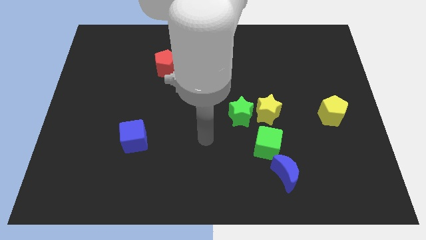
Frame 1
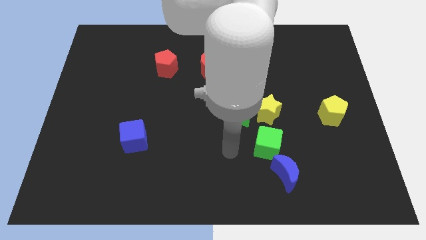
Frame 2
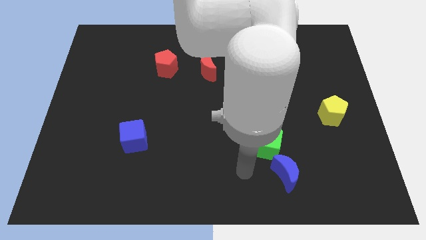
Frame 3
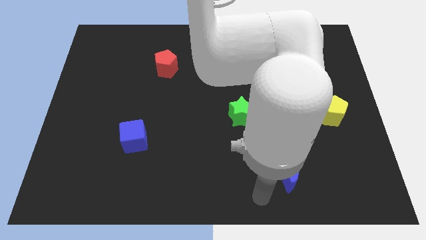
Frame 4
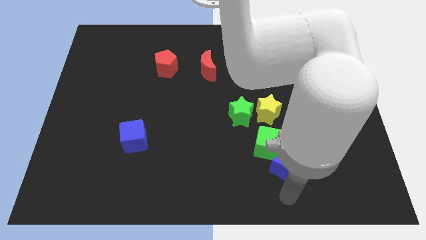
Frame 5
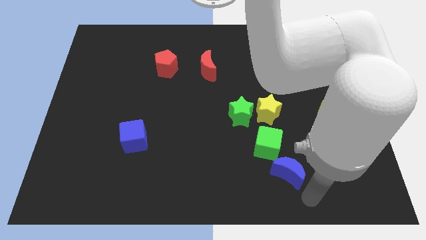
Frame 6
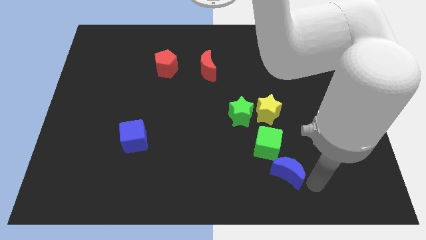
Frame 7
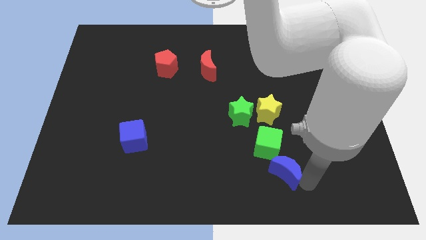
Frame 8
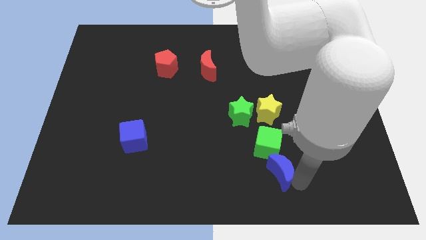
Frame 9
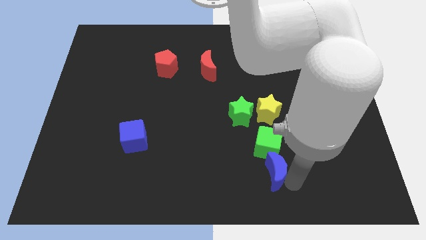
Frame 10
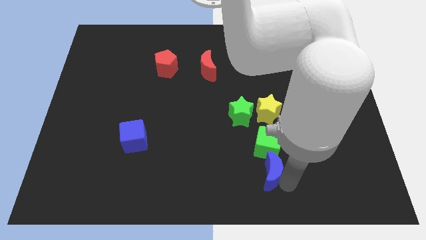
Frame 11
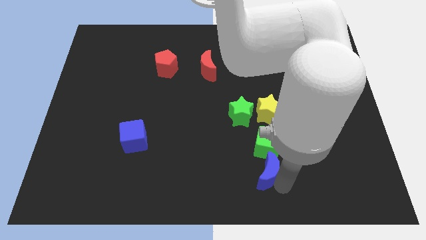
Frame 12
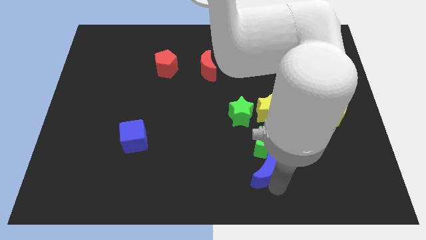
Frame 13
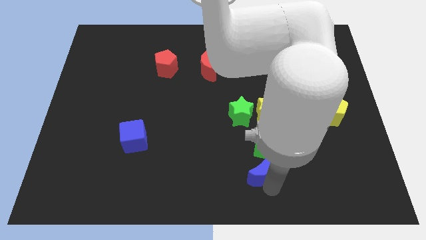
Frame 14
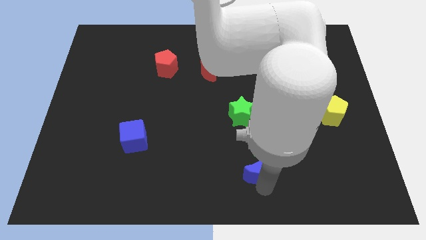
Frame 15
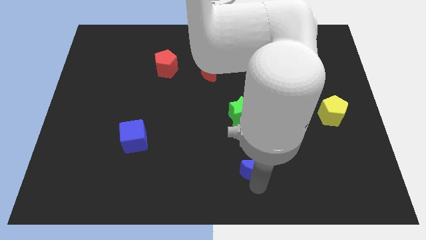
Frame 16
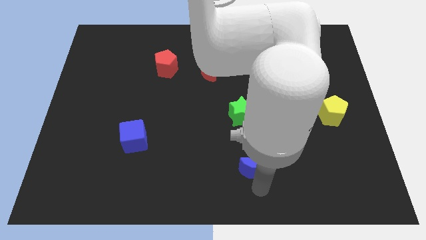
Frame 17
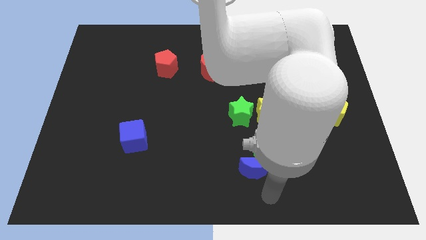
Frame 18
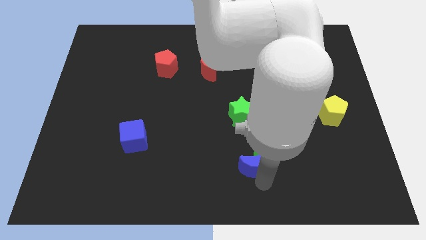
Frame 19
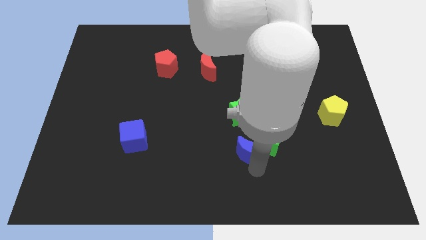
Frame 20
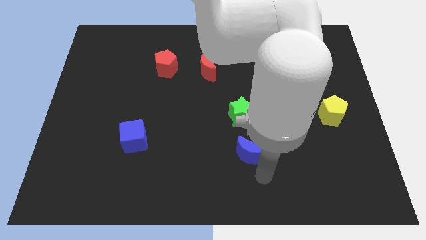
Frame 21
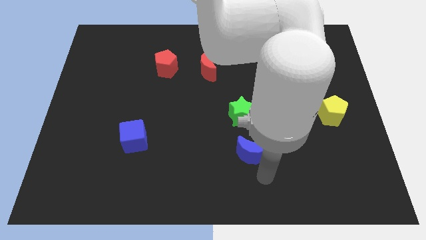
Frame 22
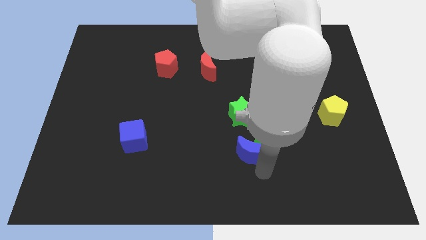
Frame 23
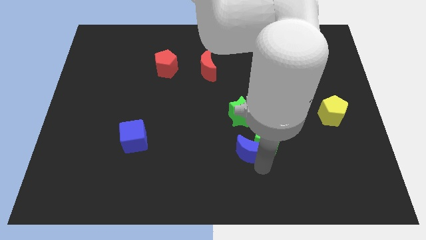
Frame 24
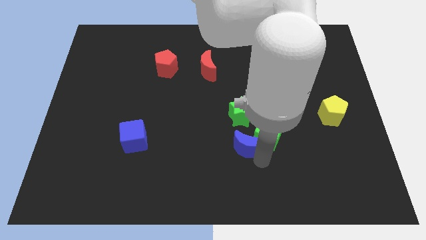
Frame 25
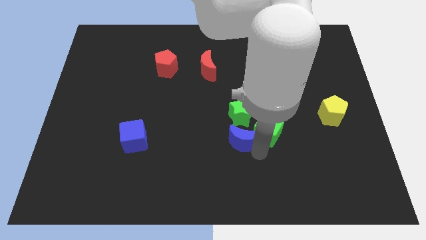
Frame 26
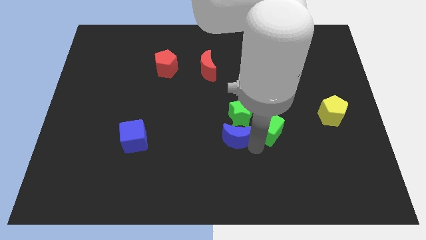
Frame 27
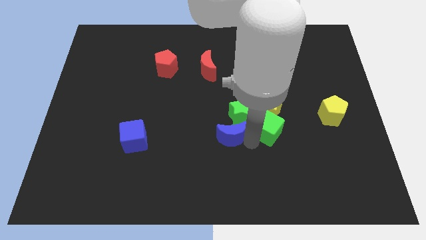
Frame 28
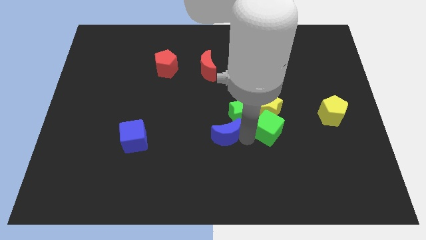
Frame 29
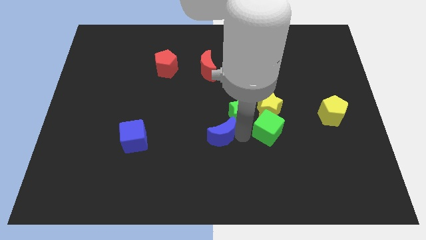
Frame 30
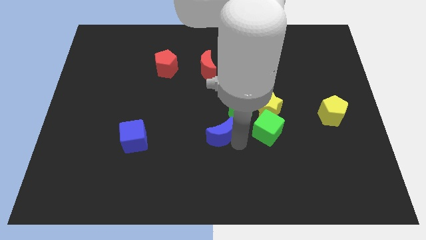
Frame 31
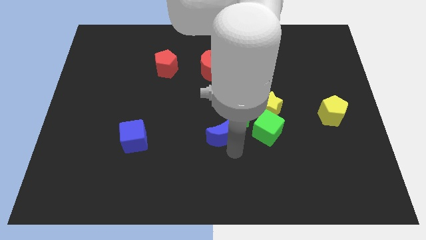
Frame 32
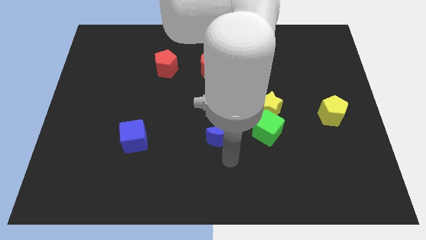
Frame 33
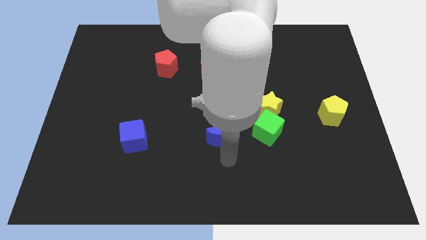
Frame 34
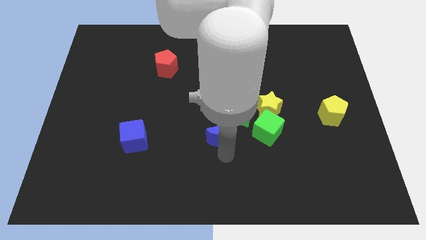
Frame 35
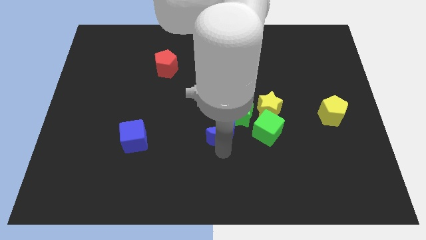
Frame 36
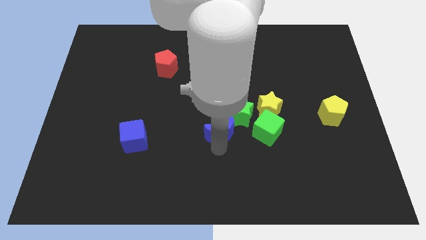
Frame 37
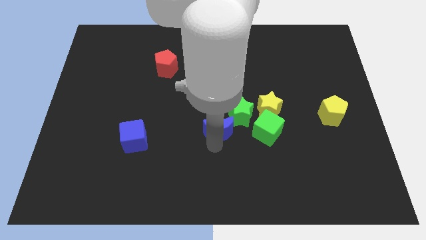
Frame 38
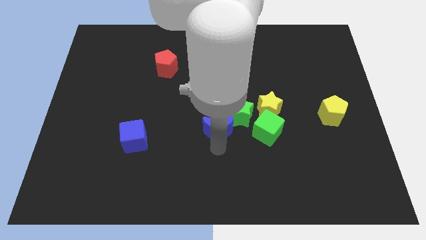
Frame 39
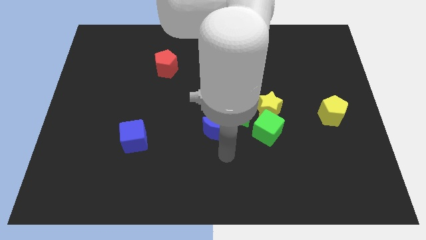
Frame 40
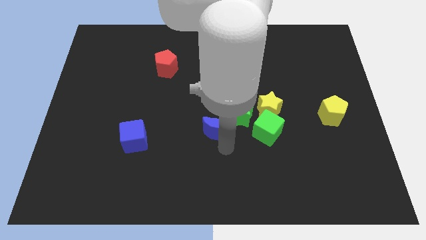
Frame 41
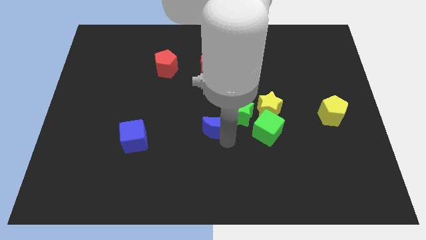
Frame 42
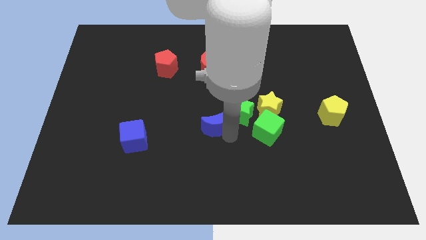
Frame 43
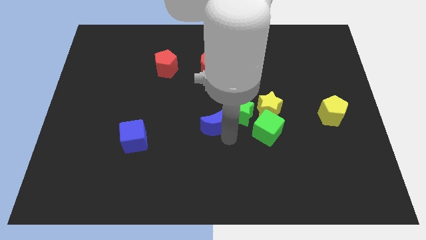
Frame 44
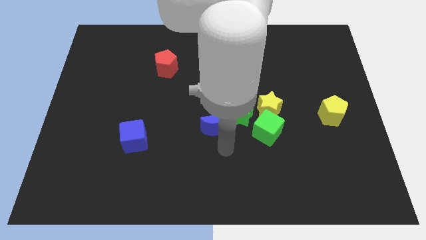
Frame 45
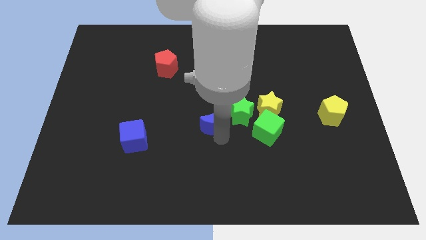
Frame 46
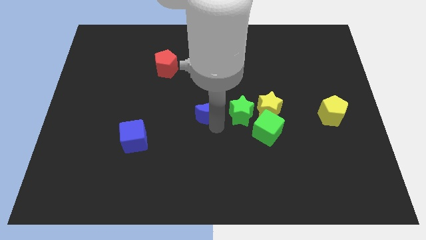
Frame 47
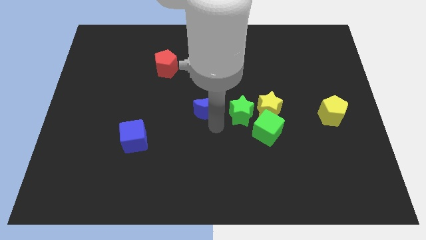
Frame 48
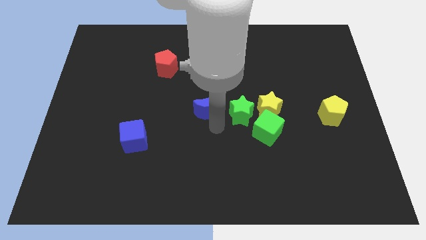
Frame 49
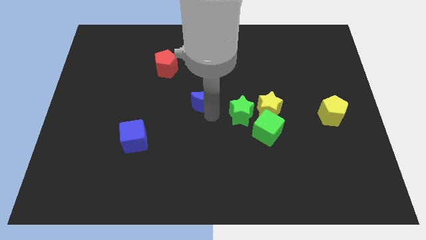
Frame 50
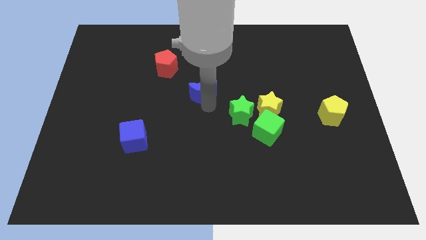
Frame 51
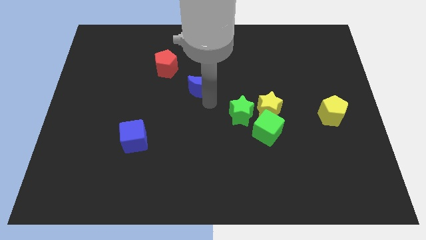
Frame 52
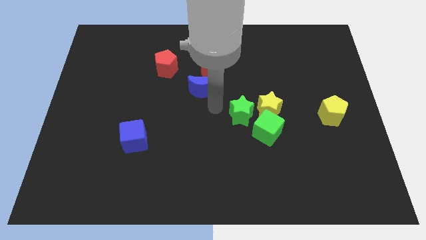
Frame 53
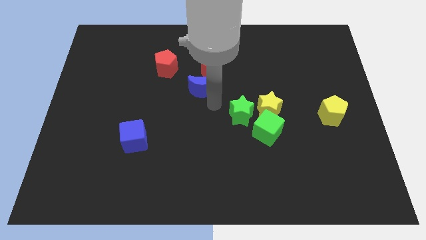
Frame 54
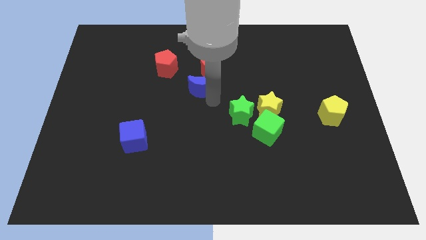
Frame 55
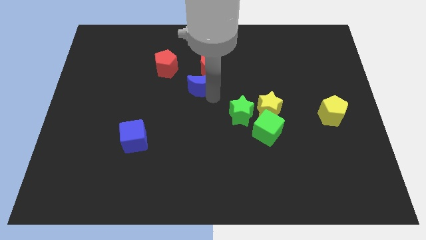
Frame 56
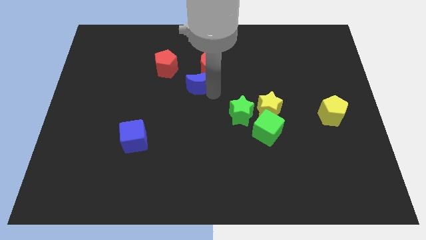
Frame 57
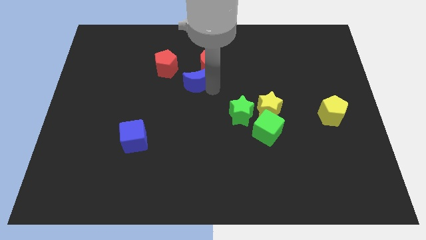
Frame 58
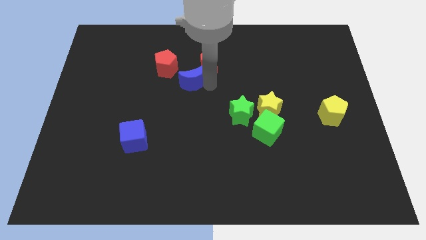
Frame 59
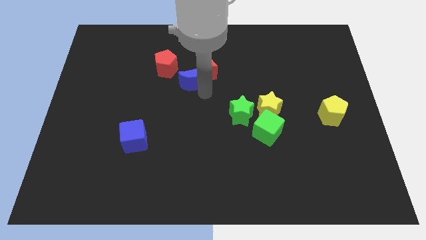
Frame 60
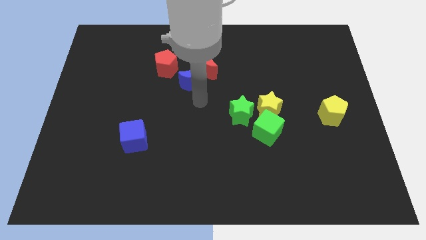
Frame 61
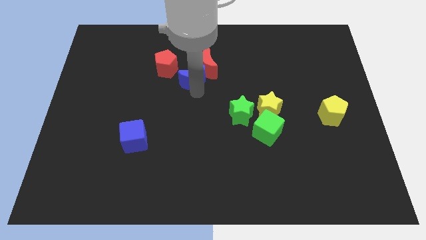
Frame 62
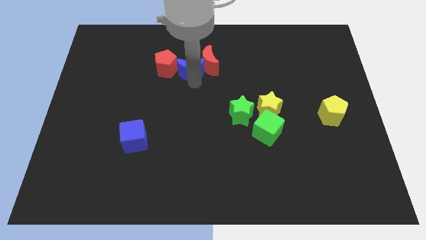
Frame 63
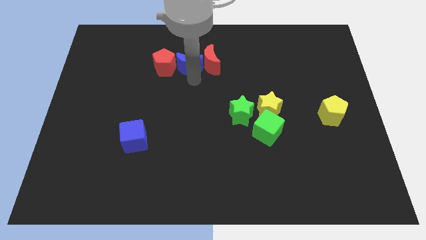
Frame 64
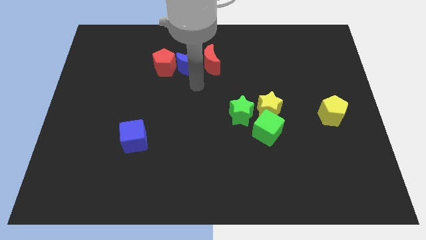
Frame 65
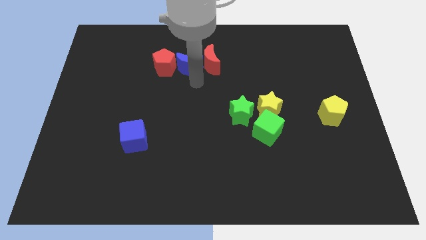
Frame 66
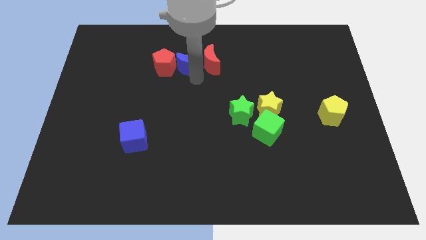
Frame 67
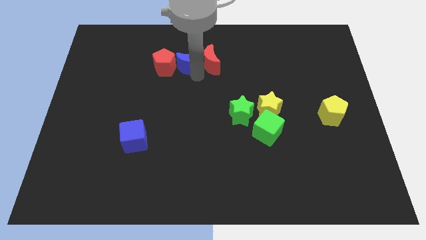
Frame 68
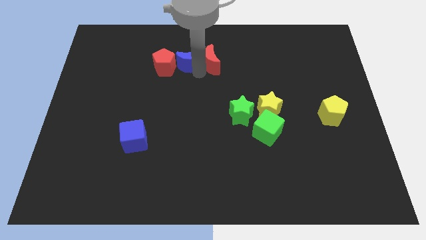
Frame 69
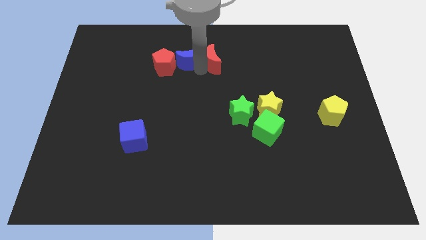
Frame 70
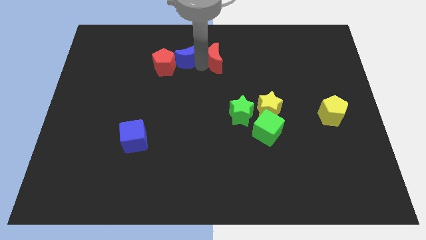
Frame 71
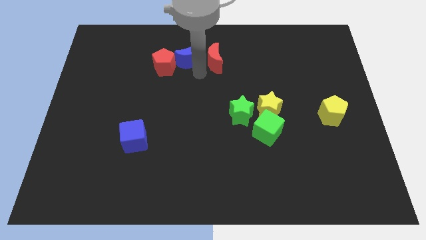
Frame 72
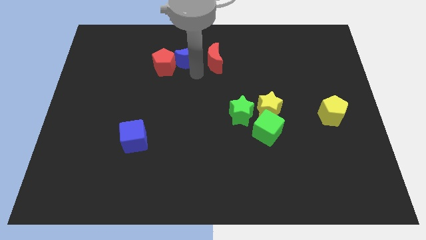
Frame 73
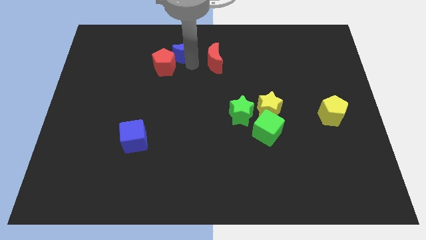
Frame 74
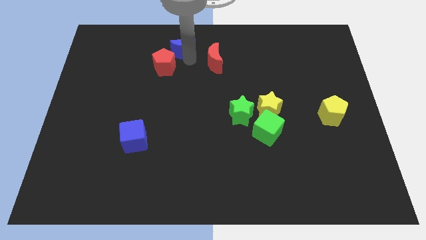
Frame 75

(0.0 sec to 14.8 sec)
put the blue moon to the top
